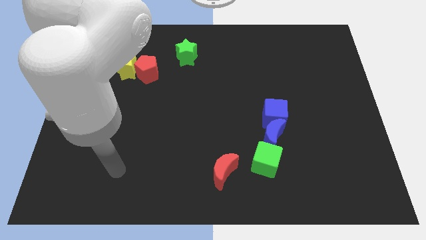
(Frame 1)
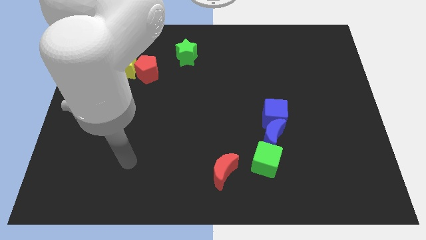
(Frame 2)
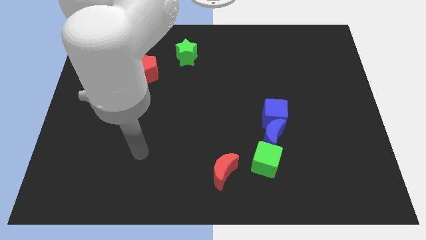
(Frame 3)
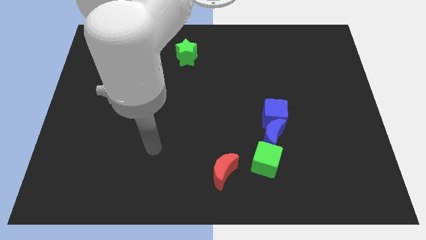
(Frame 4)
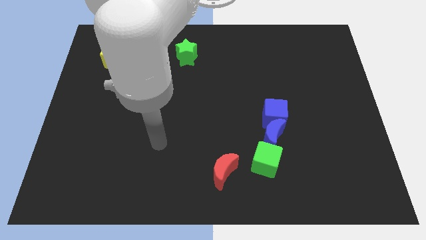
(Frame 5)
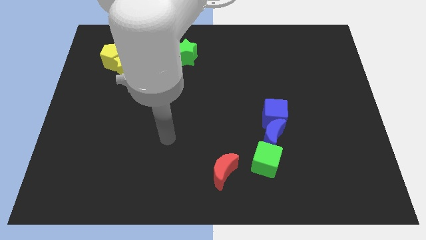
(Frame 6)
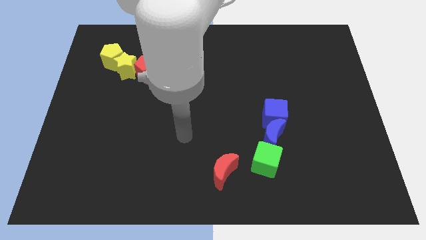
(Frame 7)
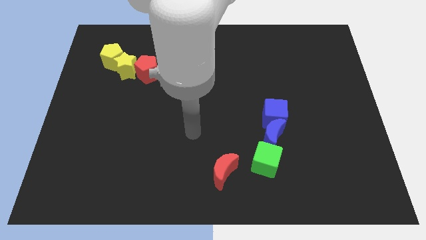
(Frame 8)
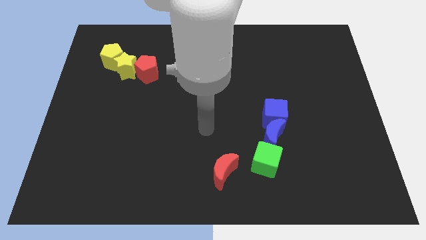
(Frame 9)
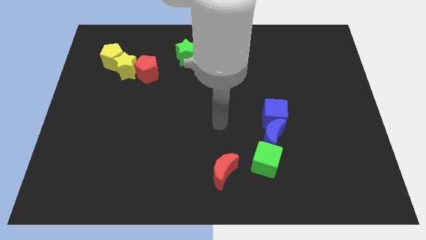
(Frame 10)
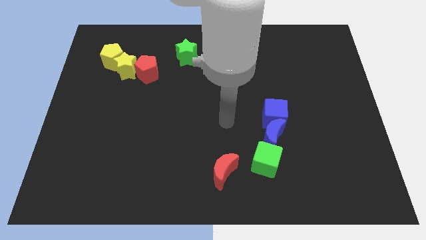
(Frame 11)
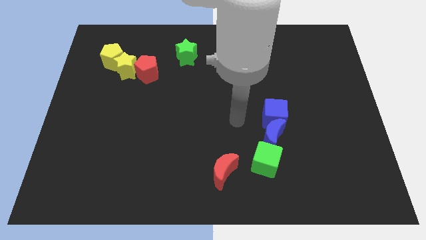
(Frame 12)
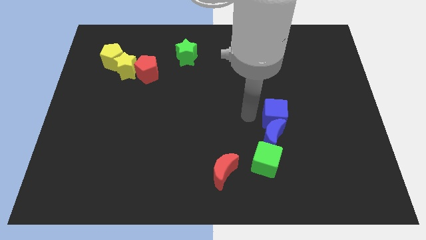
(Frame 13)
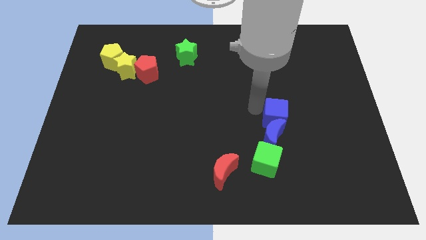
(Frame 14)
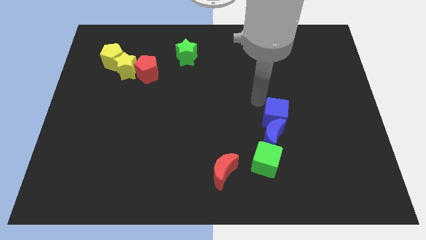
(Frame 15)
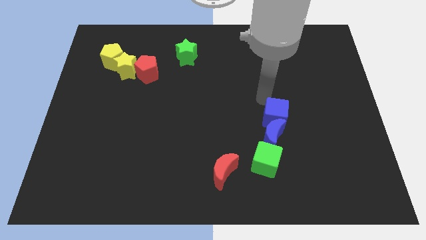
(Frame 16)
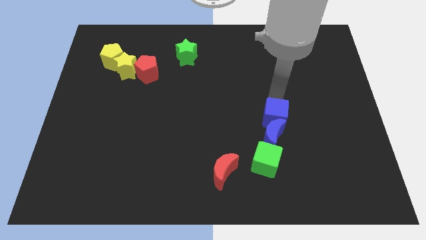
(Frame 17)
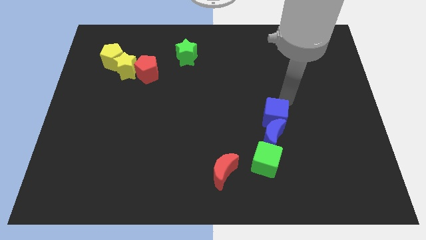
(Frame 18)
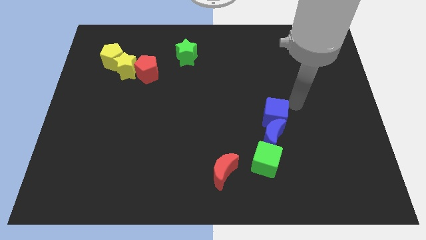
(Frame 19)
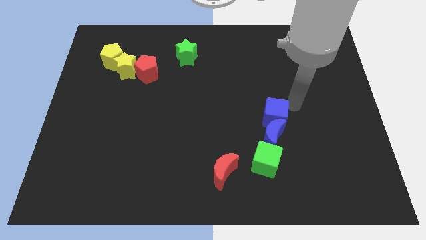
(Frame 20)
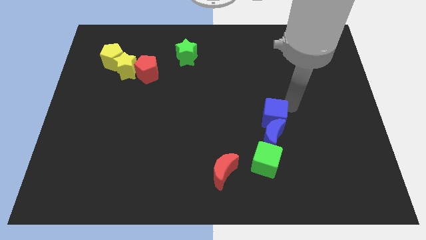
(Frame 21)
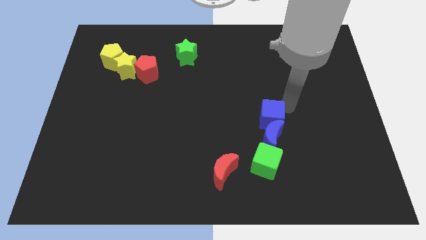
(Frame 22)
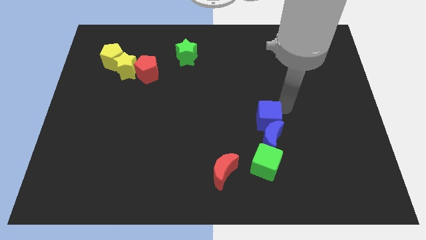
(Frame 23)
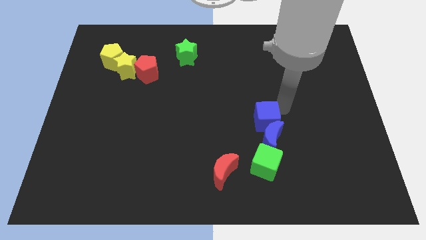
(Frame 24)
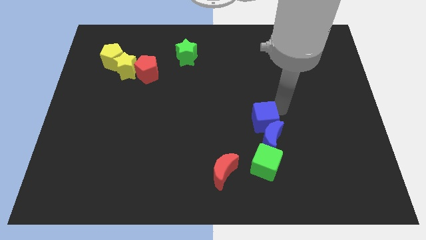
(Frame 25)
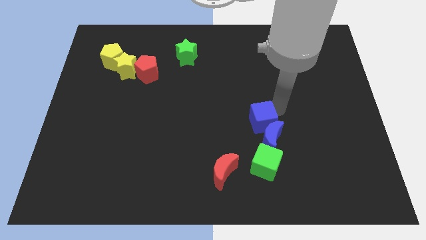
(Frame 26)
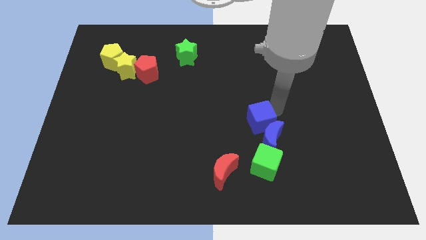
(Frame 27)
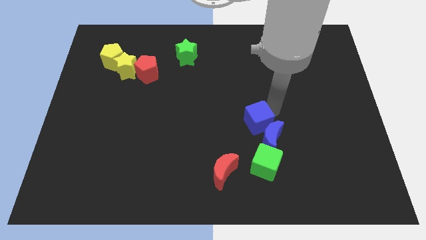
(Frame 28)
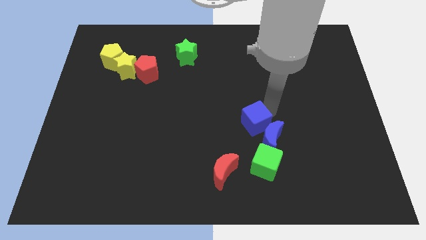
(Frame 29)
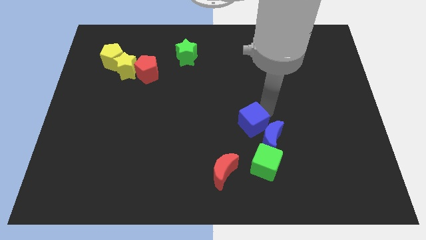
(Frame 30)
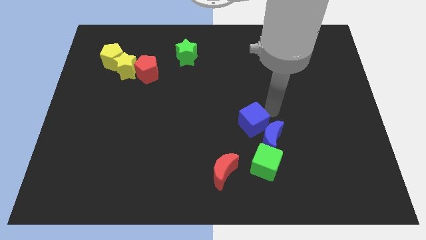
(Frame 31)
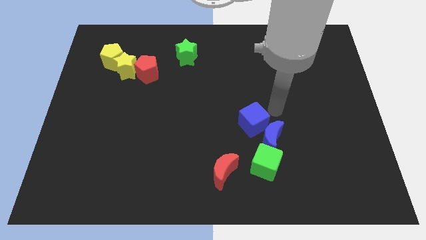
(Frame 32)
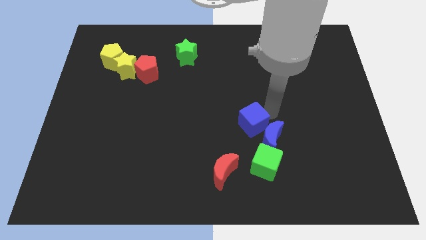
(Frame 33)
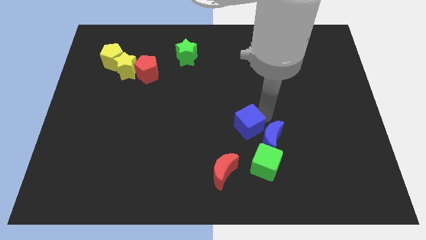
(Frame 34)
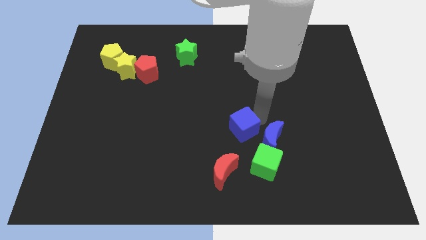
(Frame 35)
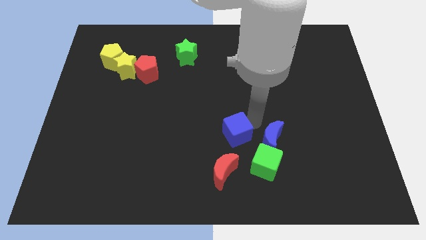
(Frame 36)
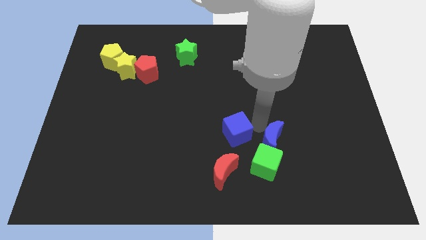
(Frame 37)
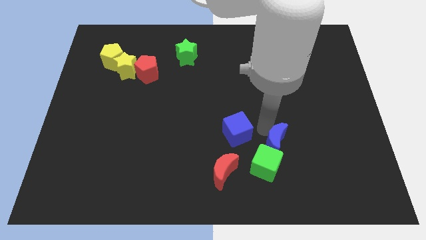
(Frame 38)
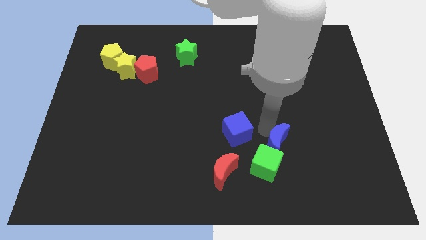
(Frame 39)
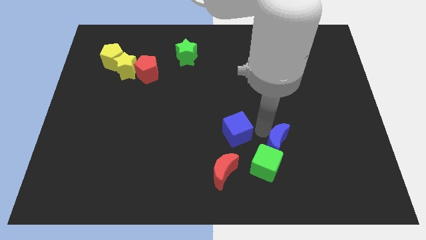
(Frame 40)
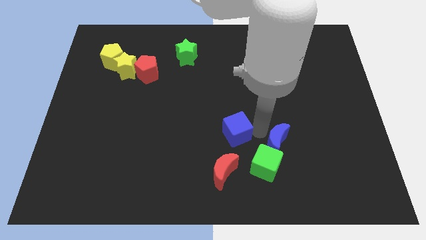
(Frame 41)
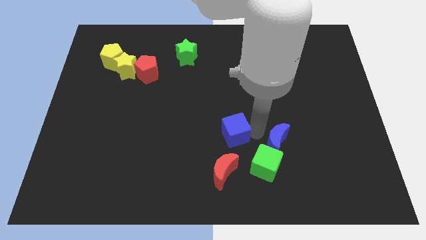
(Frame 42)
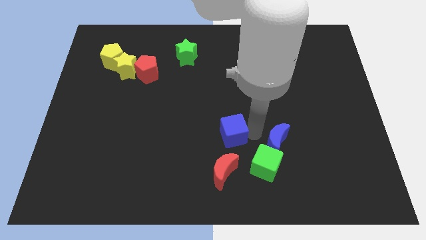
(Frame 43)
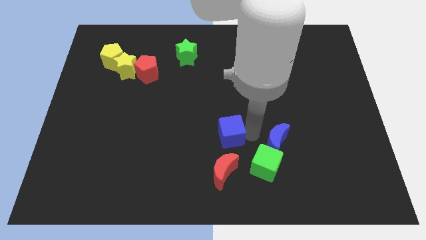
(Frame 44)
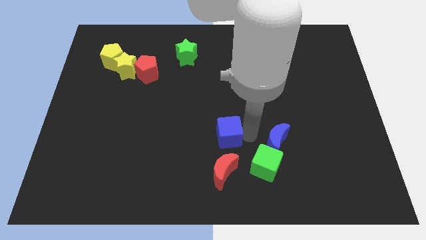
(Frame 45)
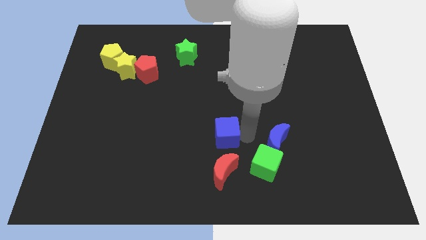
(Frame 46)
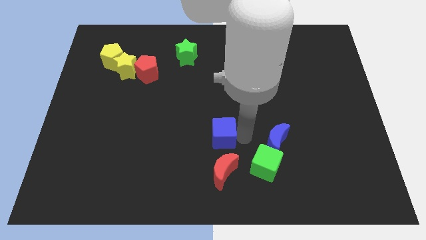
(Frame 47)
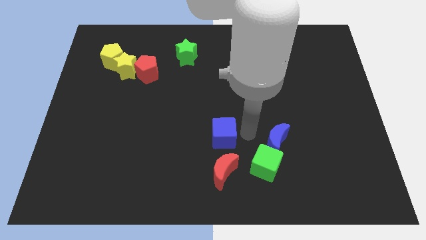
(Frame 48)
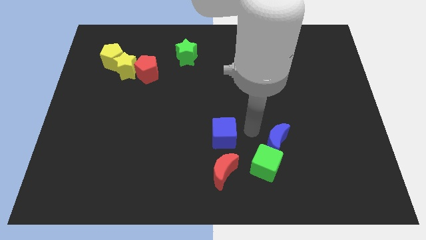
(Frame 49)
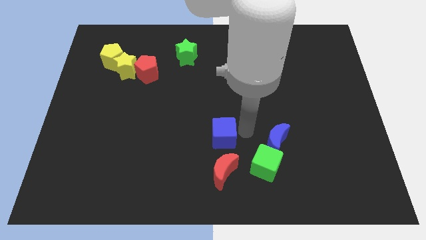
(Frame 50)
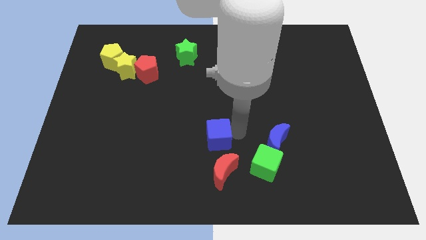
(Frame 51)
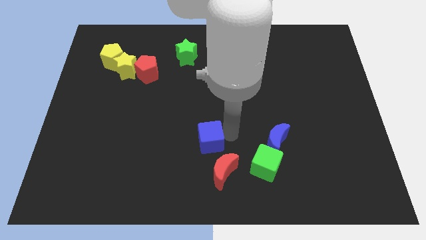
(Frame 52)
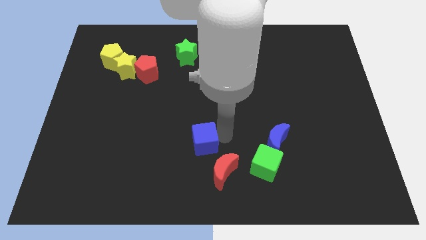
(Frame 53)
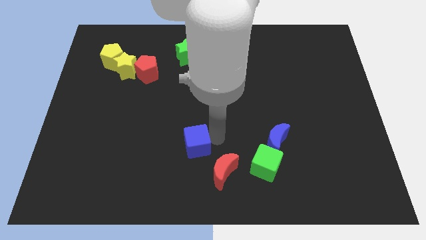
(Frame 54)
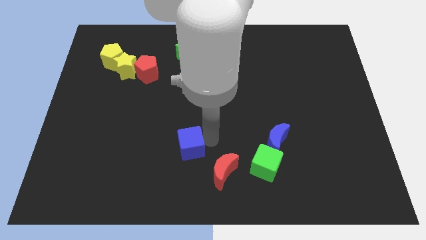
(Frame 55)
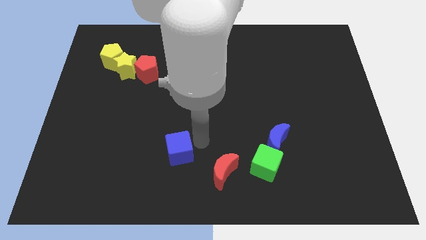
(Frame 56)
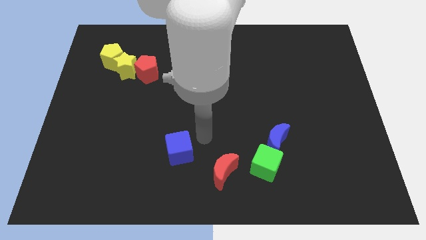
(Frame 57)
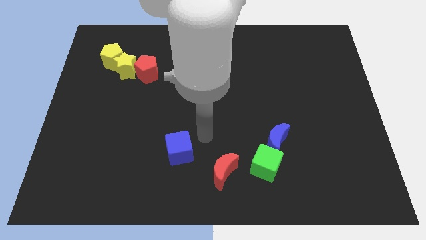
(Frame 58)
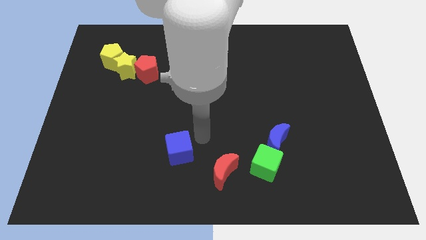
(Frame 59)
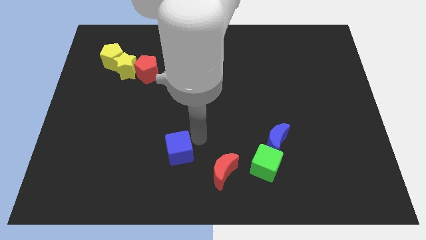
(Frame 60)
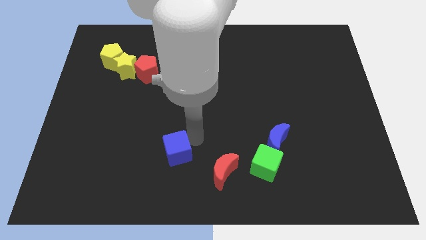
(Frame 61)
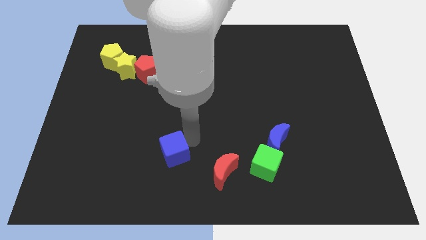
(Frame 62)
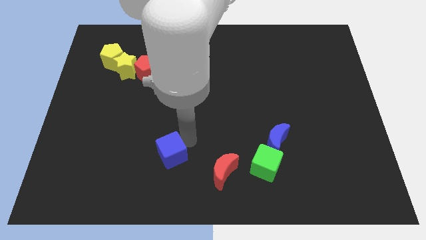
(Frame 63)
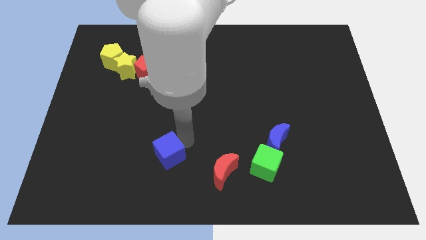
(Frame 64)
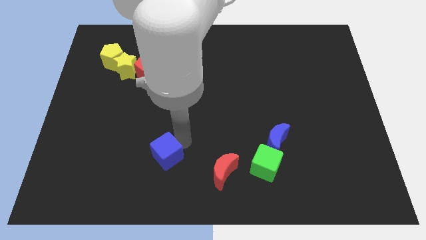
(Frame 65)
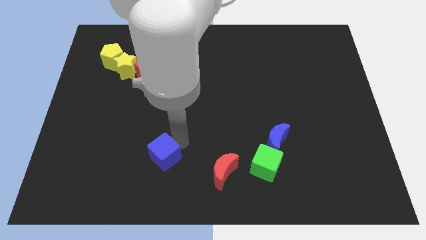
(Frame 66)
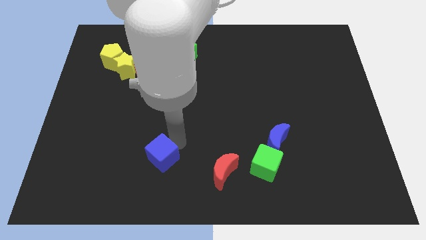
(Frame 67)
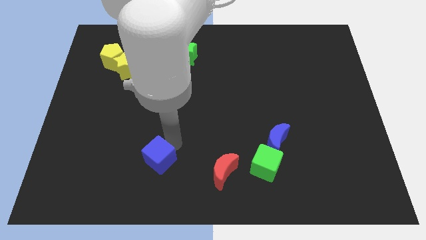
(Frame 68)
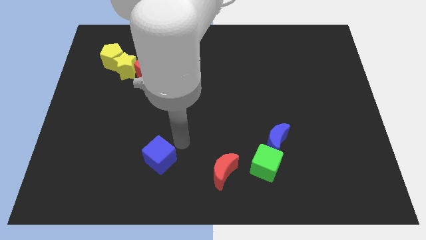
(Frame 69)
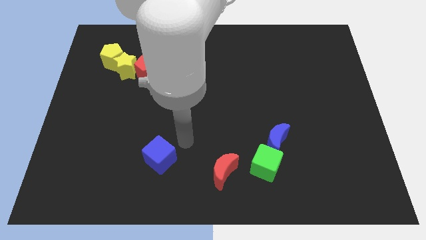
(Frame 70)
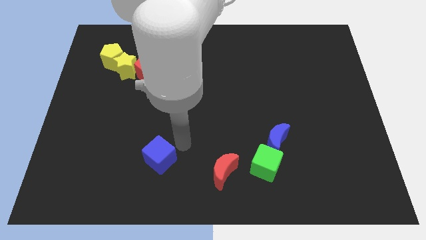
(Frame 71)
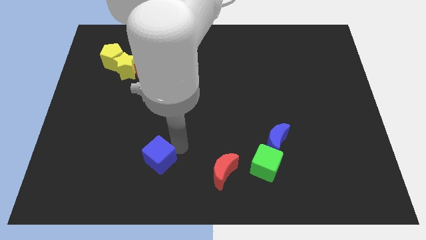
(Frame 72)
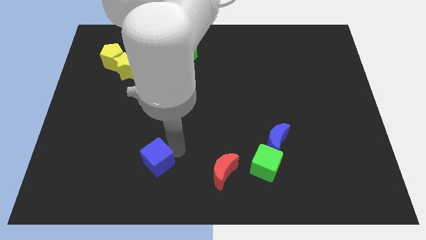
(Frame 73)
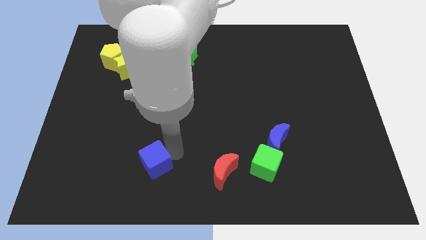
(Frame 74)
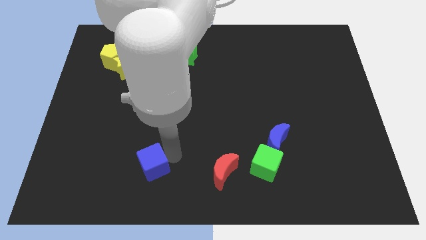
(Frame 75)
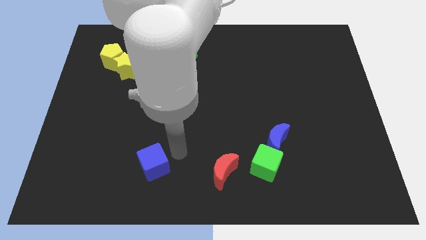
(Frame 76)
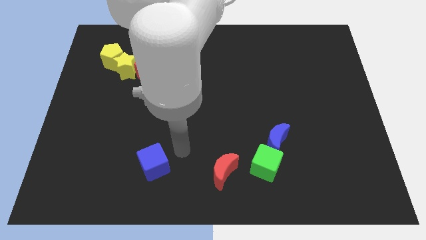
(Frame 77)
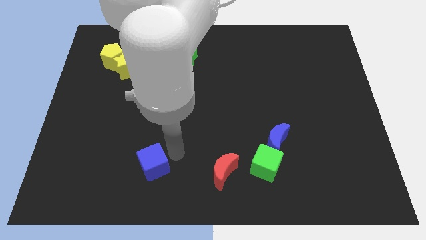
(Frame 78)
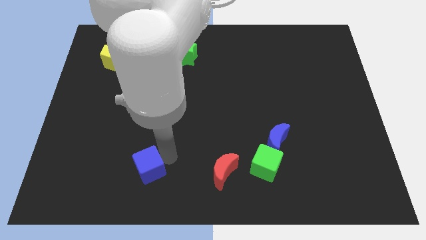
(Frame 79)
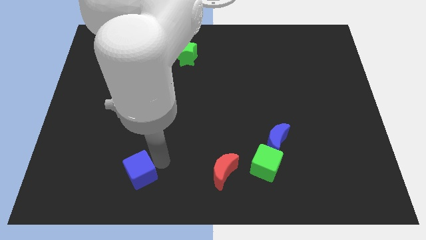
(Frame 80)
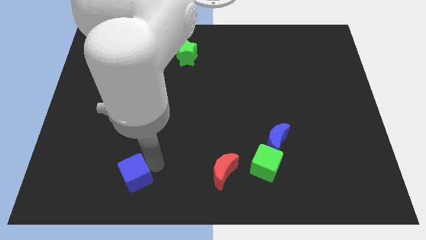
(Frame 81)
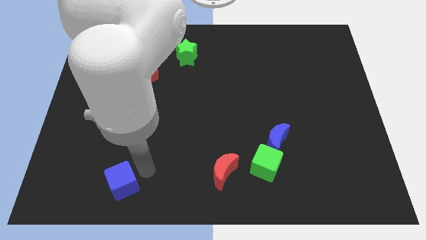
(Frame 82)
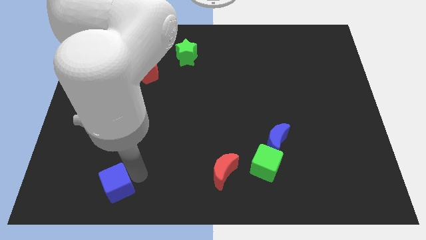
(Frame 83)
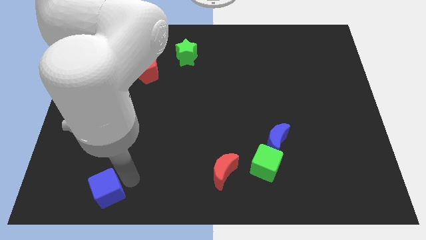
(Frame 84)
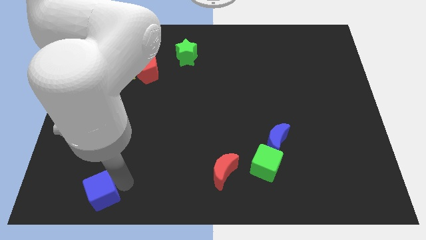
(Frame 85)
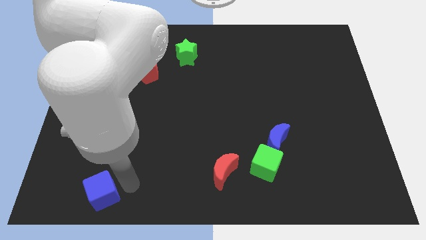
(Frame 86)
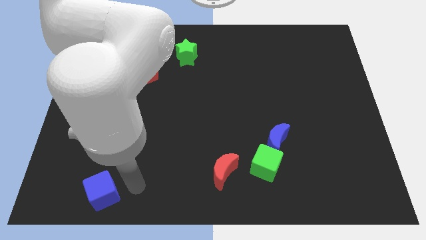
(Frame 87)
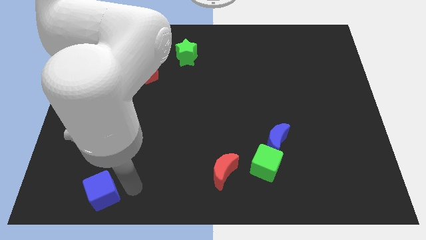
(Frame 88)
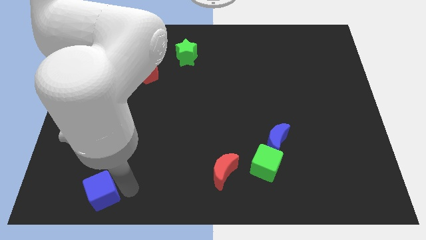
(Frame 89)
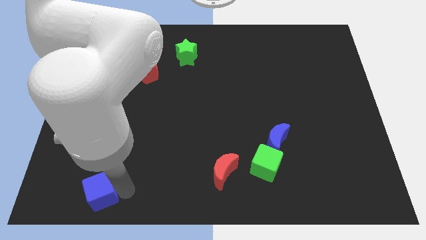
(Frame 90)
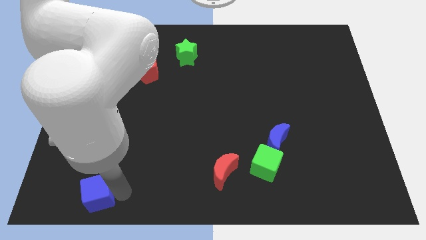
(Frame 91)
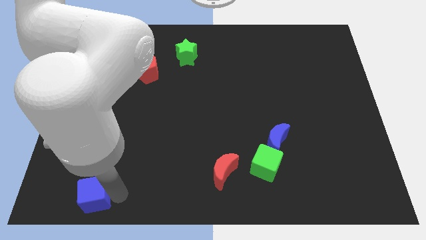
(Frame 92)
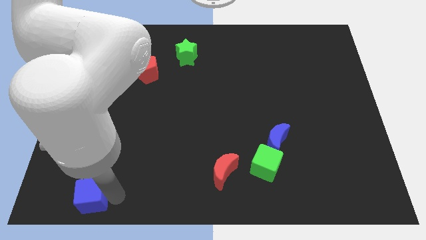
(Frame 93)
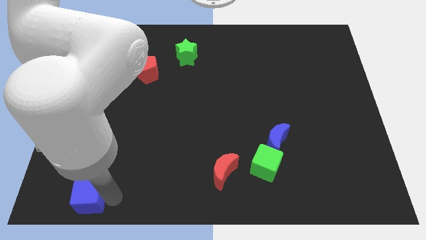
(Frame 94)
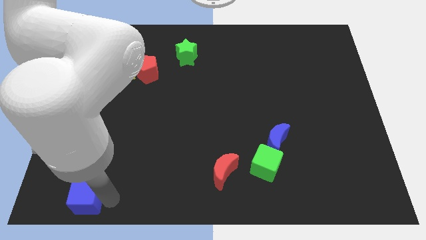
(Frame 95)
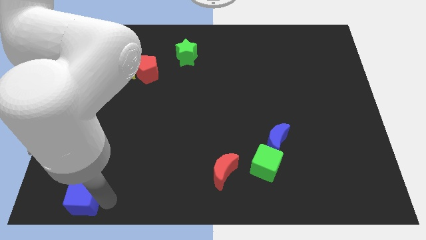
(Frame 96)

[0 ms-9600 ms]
move the blue cube to the bottom left of the board
